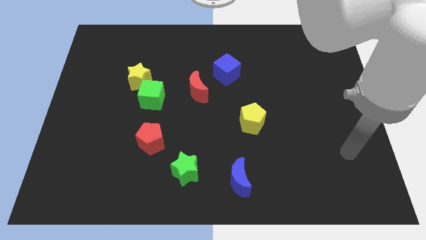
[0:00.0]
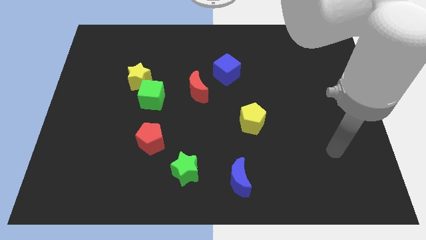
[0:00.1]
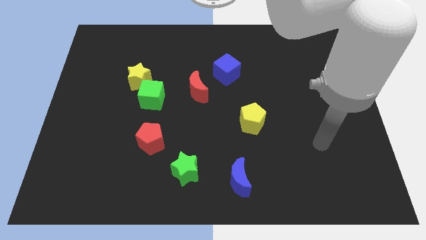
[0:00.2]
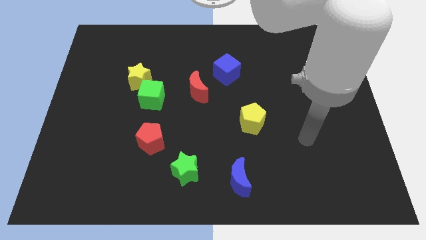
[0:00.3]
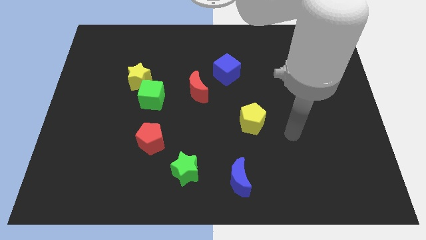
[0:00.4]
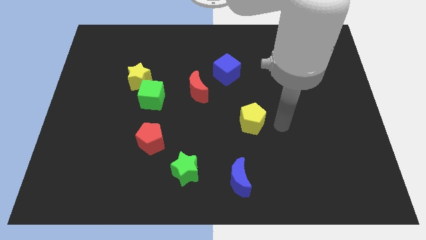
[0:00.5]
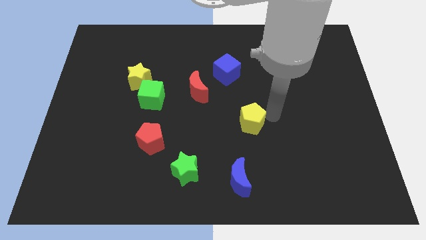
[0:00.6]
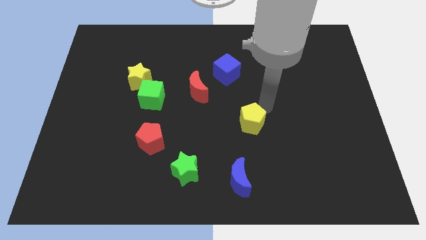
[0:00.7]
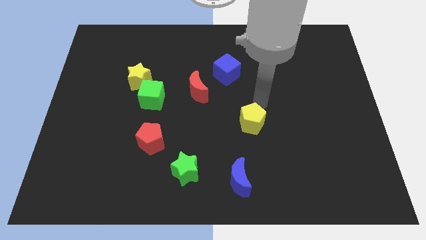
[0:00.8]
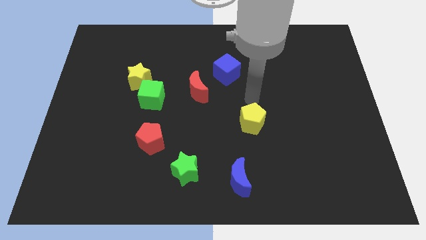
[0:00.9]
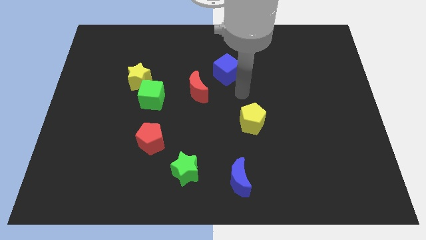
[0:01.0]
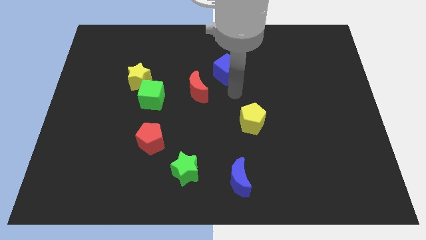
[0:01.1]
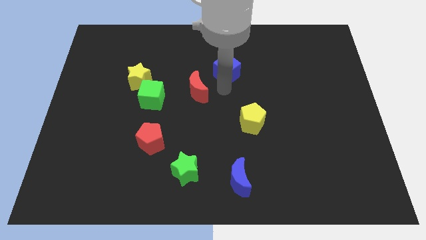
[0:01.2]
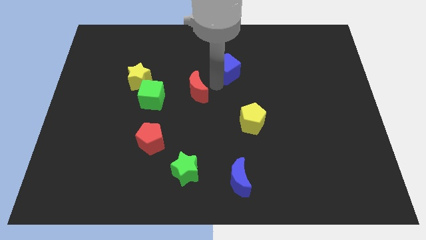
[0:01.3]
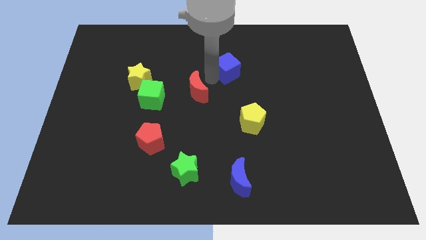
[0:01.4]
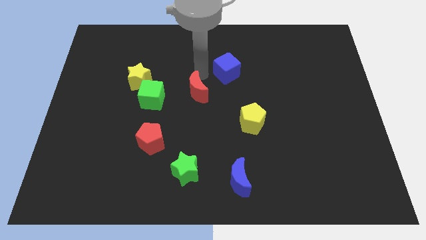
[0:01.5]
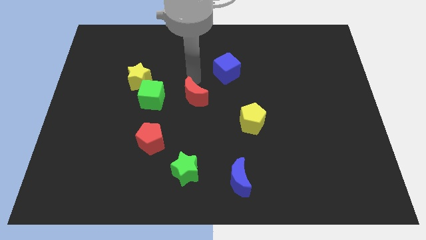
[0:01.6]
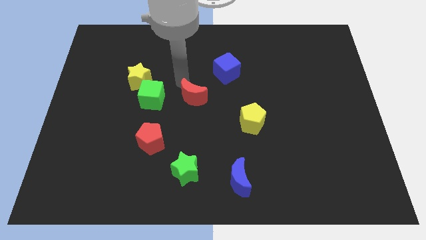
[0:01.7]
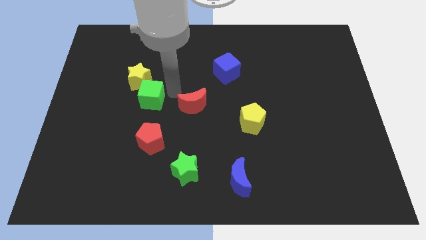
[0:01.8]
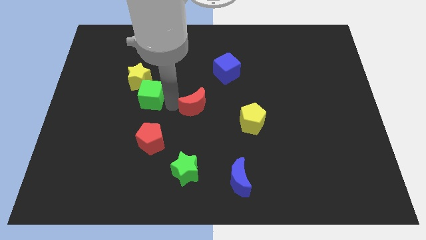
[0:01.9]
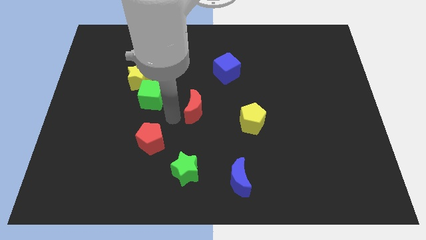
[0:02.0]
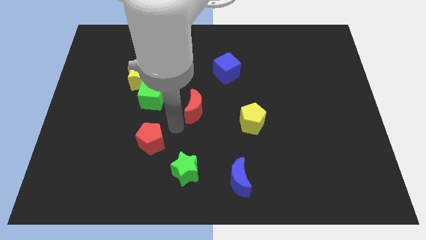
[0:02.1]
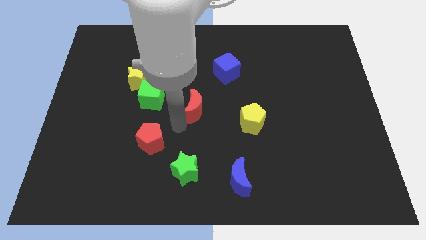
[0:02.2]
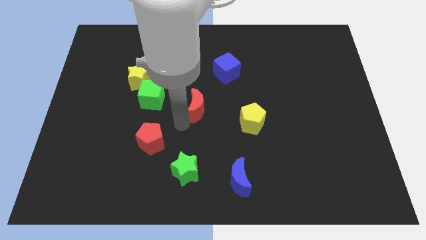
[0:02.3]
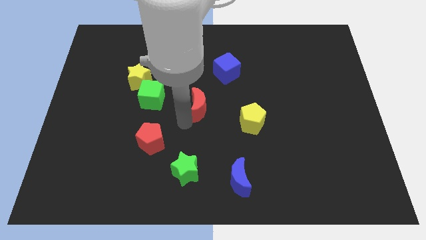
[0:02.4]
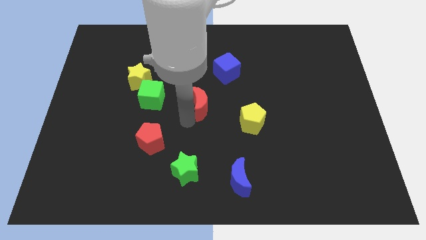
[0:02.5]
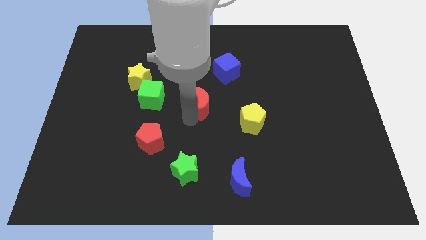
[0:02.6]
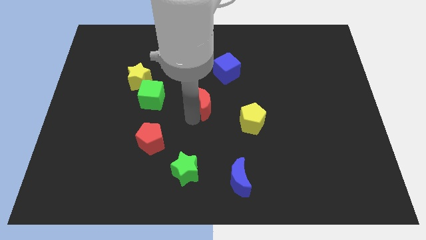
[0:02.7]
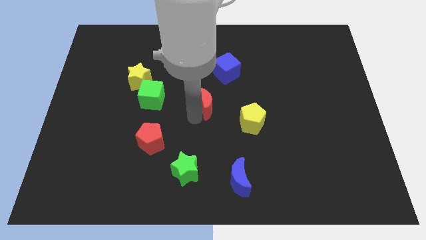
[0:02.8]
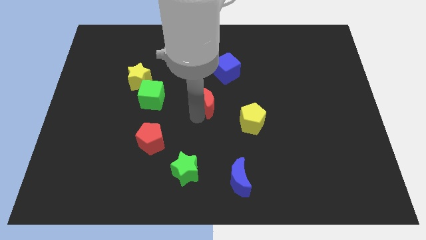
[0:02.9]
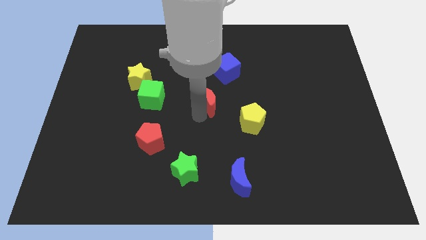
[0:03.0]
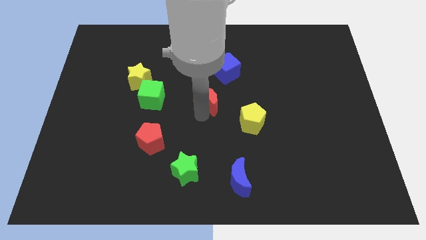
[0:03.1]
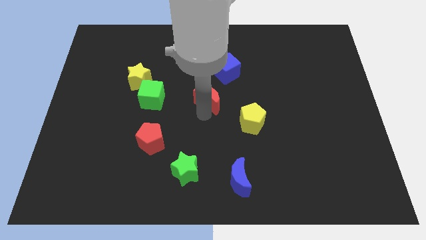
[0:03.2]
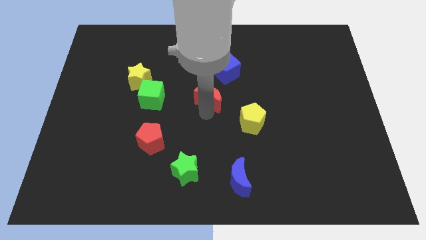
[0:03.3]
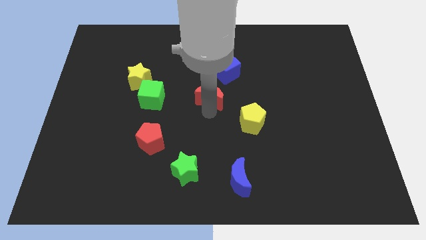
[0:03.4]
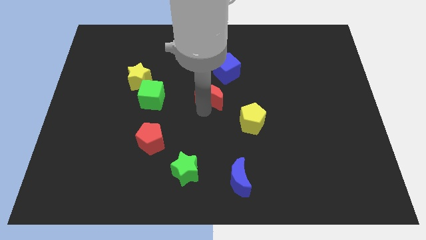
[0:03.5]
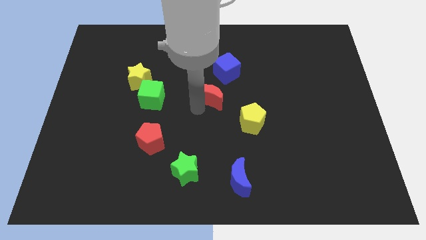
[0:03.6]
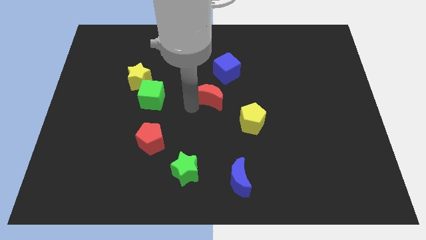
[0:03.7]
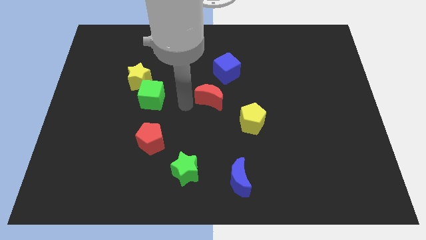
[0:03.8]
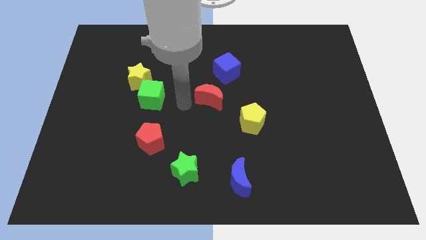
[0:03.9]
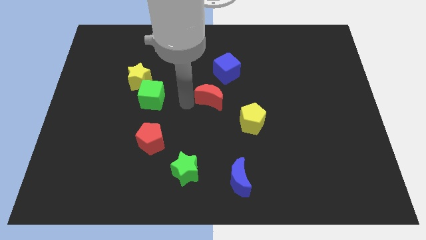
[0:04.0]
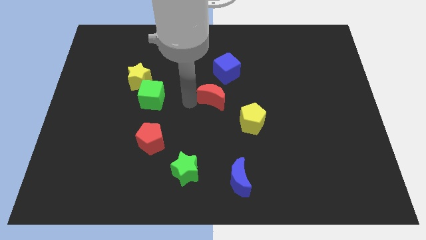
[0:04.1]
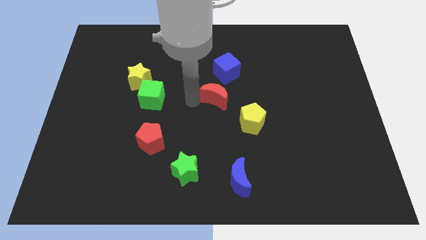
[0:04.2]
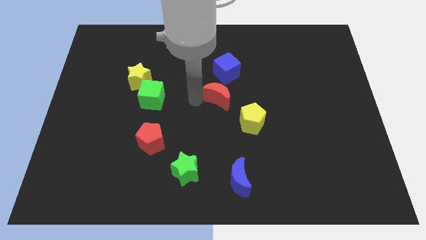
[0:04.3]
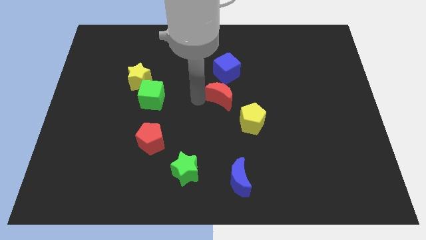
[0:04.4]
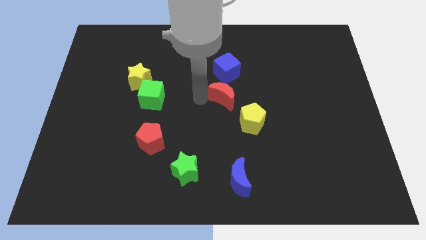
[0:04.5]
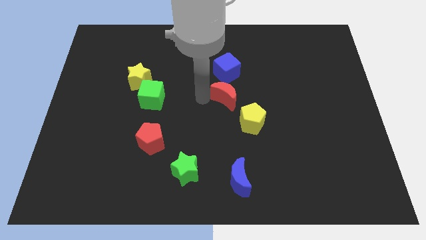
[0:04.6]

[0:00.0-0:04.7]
move the red moon right a little bit

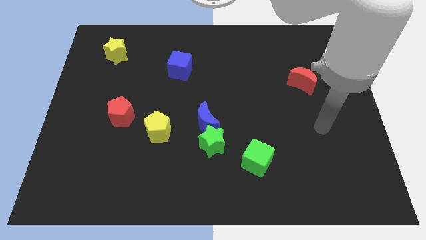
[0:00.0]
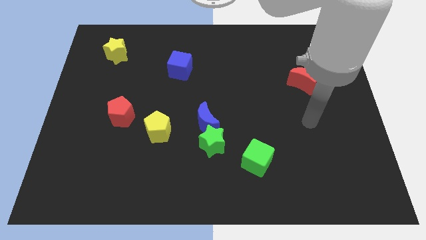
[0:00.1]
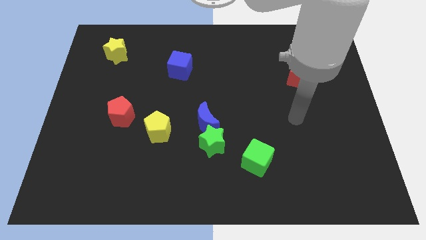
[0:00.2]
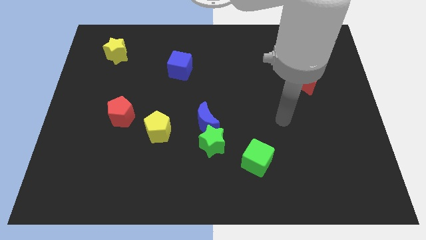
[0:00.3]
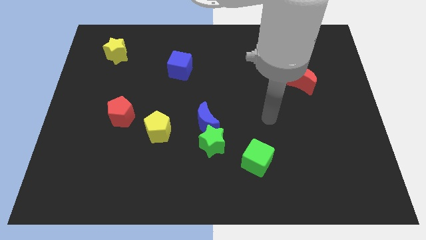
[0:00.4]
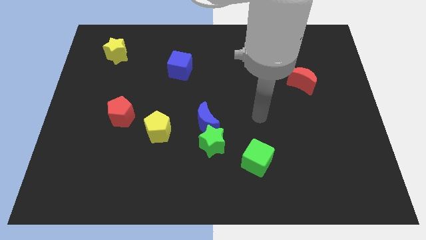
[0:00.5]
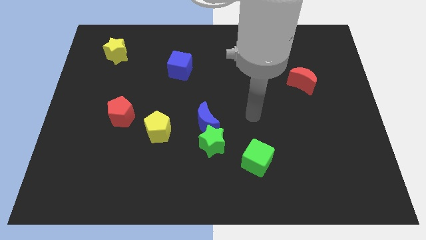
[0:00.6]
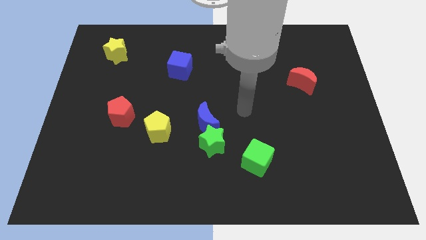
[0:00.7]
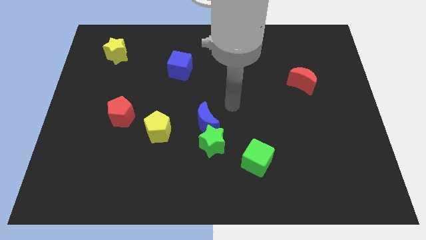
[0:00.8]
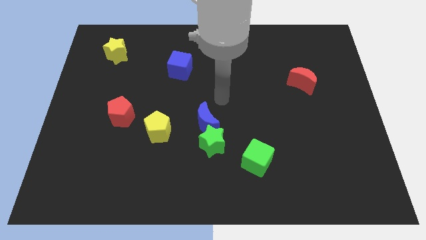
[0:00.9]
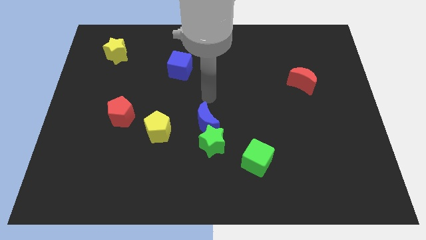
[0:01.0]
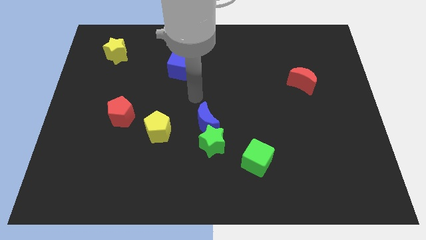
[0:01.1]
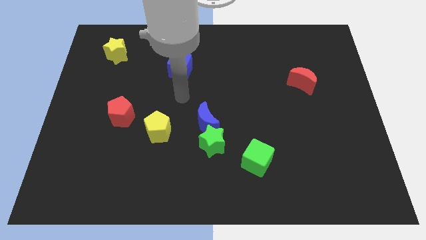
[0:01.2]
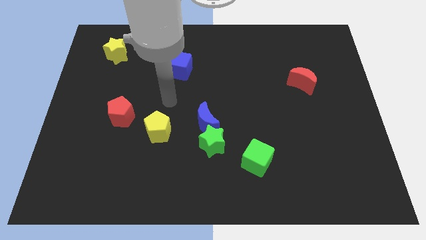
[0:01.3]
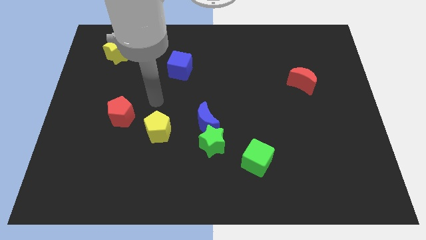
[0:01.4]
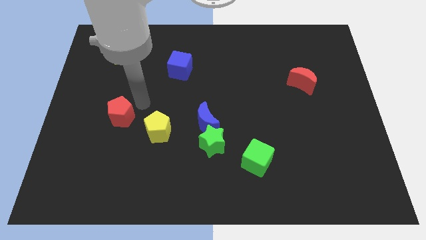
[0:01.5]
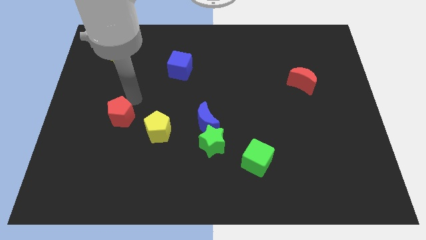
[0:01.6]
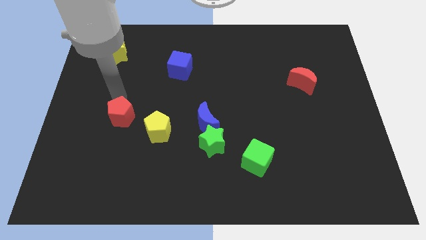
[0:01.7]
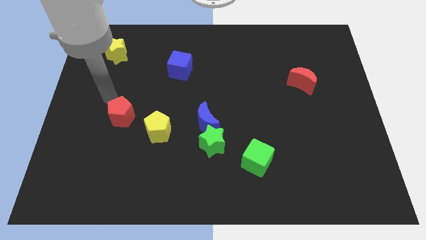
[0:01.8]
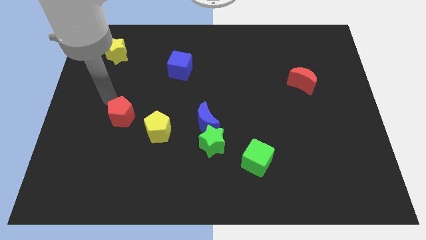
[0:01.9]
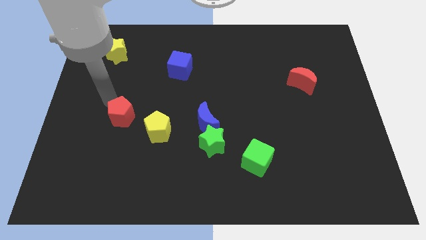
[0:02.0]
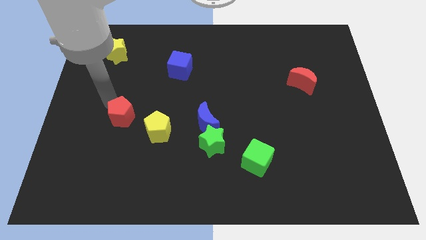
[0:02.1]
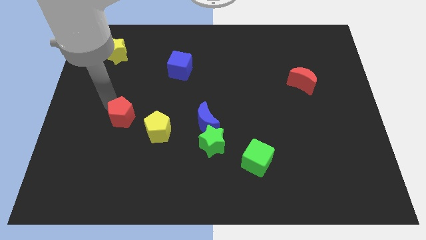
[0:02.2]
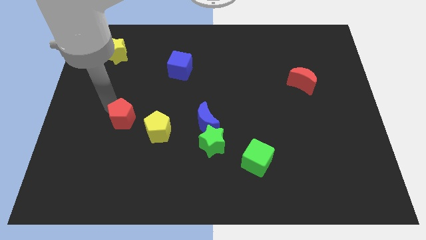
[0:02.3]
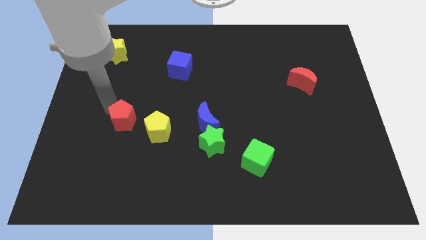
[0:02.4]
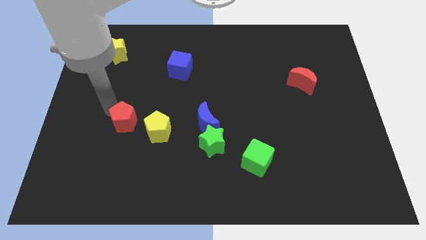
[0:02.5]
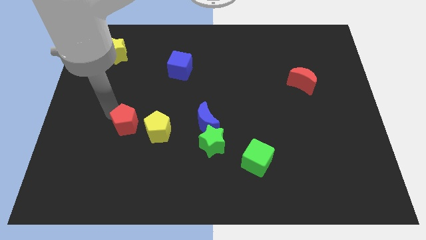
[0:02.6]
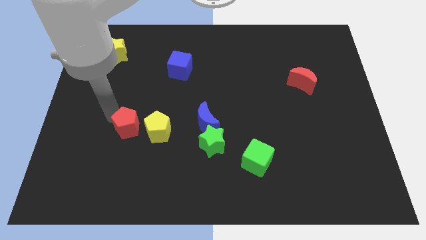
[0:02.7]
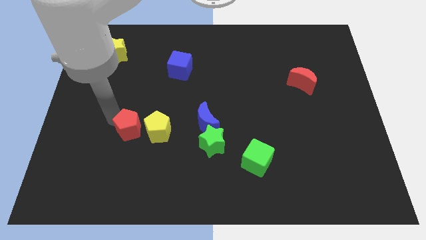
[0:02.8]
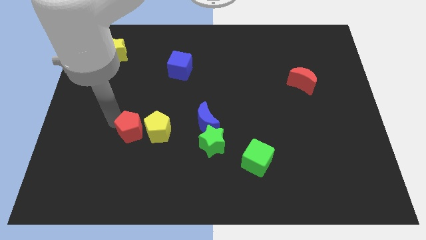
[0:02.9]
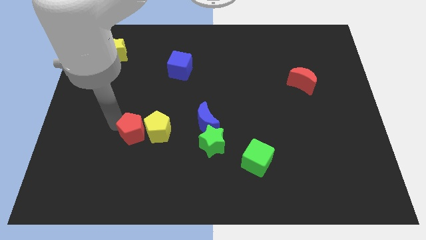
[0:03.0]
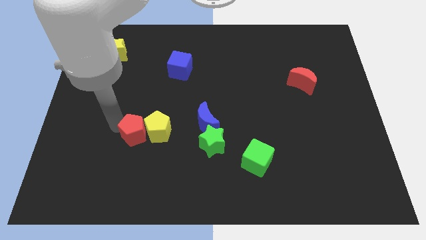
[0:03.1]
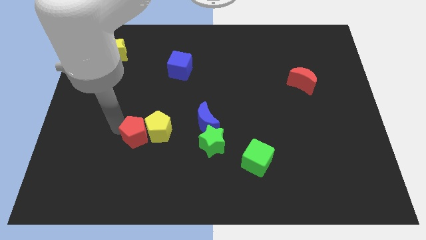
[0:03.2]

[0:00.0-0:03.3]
slightly move the red pentagon downwards and right diagonally
